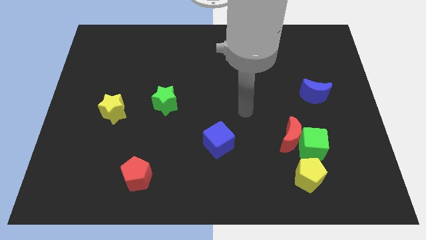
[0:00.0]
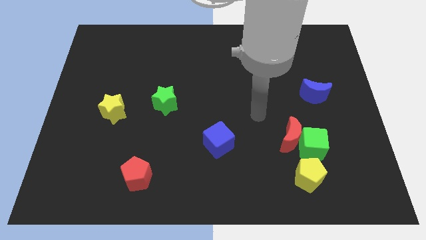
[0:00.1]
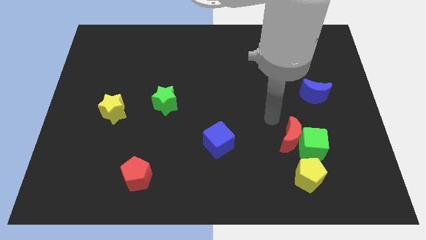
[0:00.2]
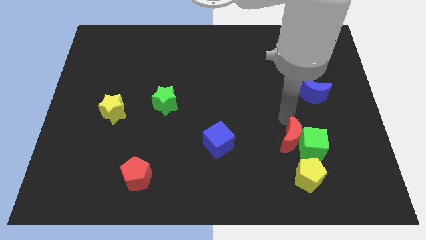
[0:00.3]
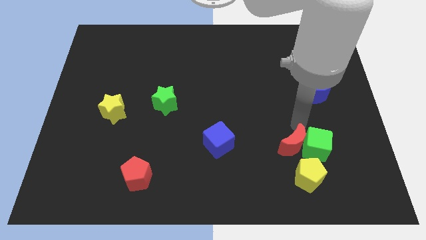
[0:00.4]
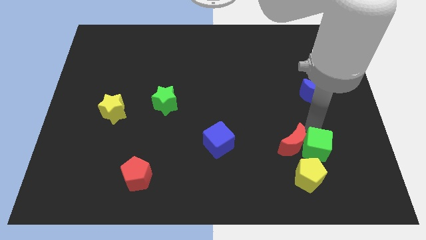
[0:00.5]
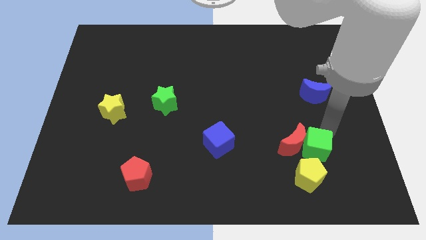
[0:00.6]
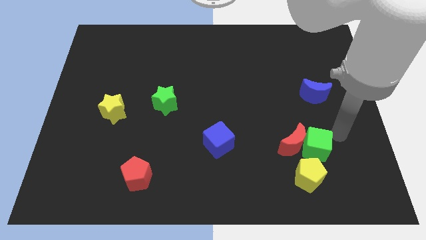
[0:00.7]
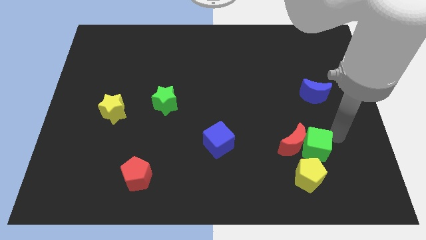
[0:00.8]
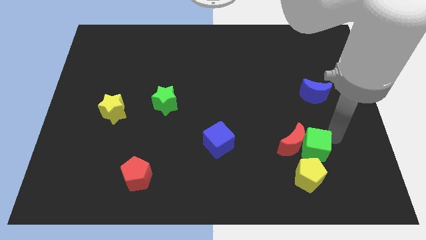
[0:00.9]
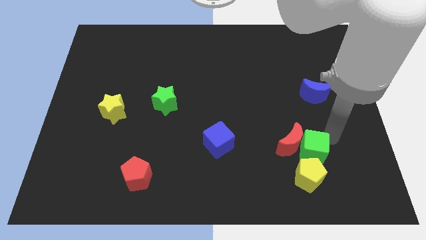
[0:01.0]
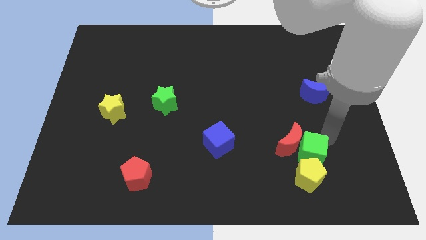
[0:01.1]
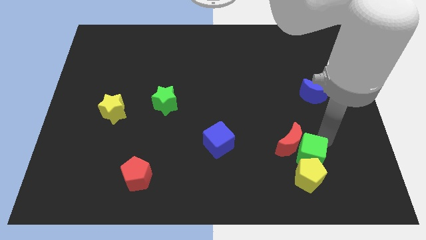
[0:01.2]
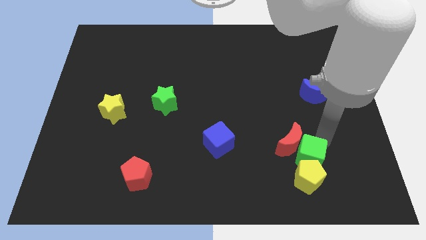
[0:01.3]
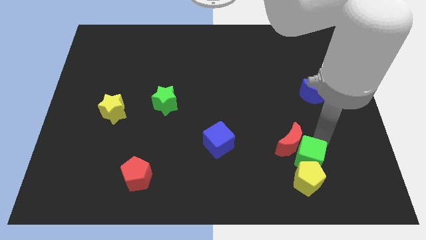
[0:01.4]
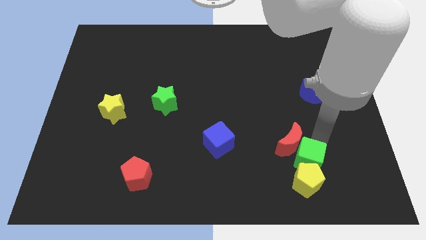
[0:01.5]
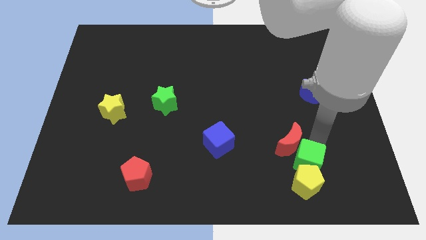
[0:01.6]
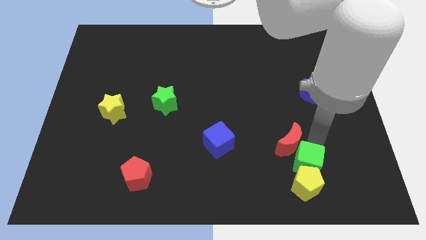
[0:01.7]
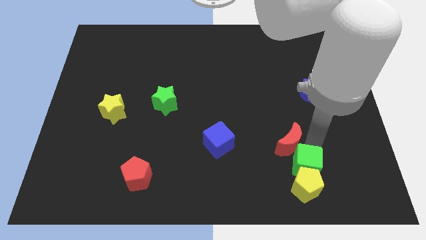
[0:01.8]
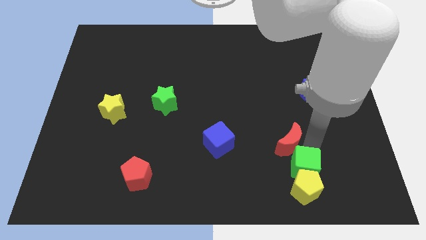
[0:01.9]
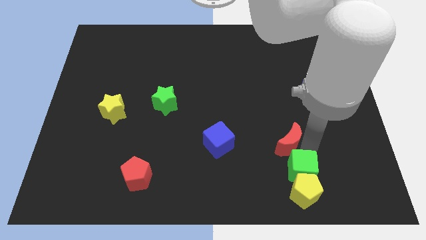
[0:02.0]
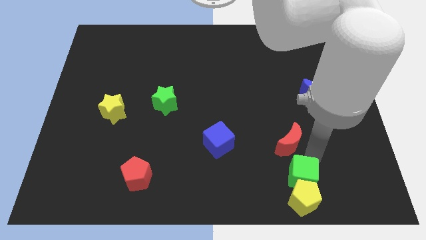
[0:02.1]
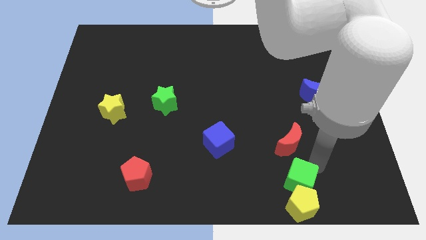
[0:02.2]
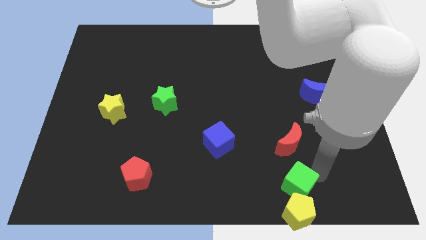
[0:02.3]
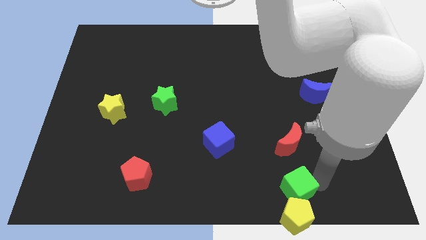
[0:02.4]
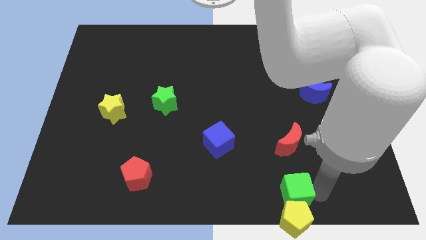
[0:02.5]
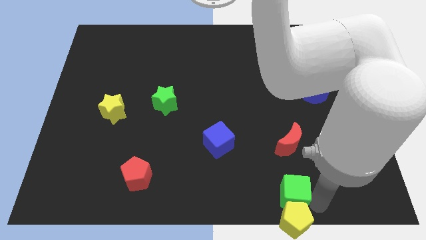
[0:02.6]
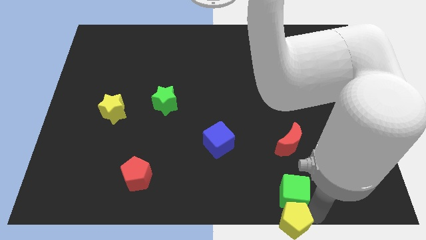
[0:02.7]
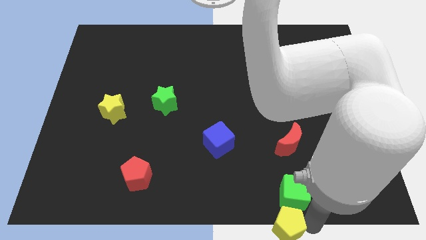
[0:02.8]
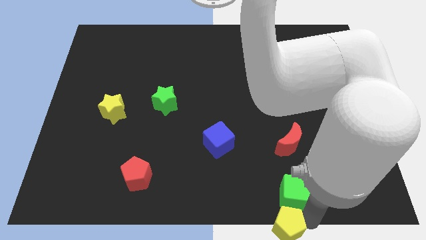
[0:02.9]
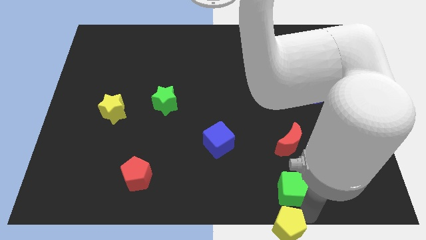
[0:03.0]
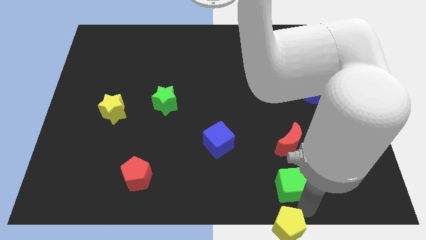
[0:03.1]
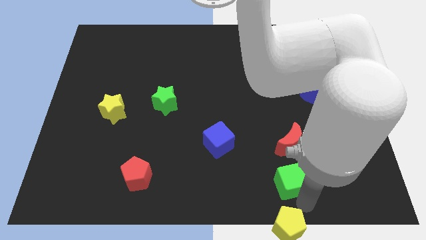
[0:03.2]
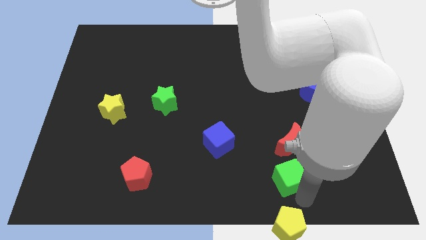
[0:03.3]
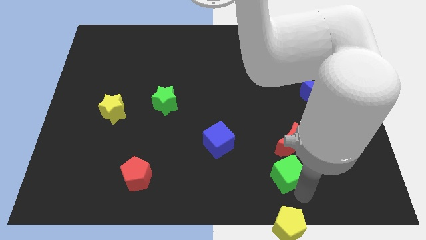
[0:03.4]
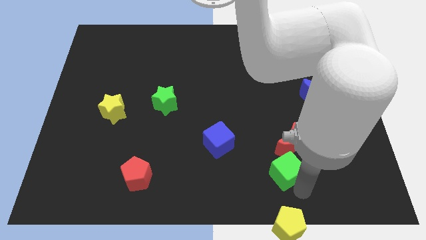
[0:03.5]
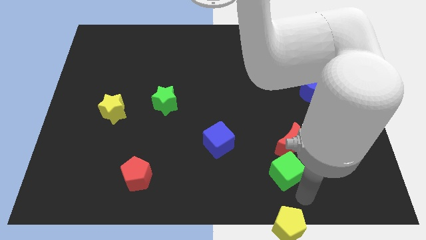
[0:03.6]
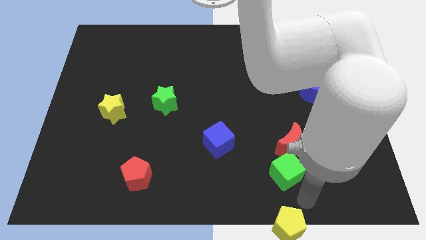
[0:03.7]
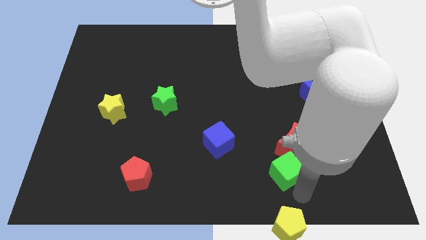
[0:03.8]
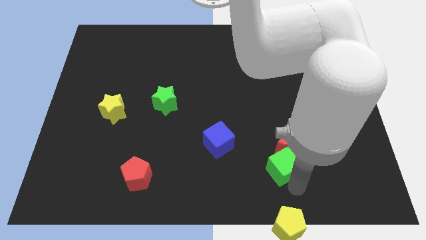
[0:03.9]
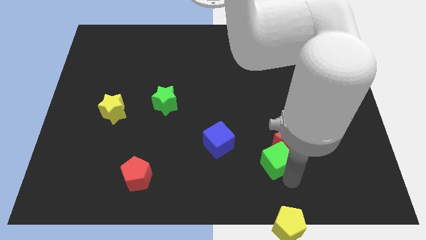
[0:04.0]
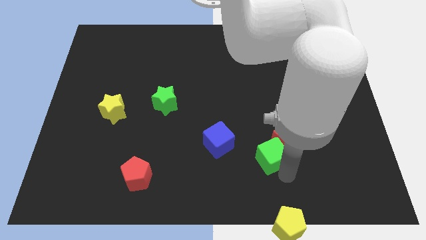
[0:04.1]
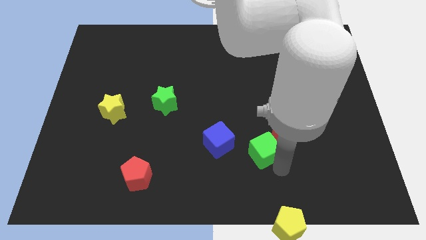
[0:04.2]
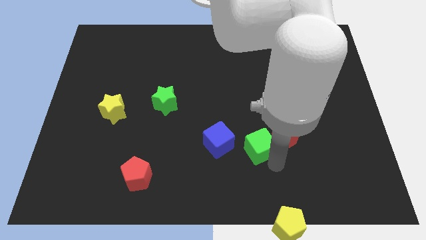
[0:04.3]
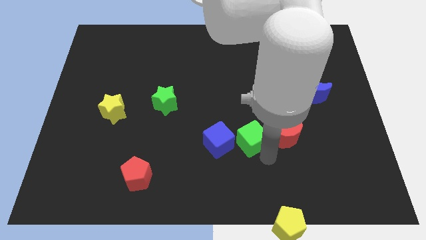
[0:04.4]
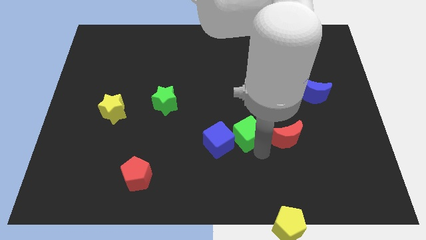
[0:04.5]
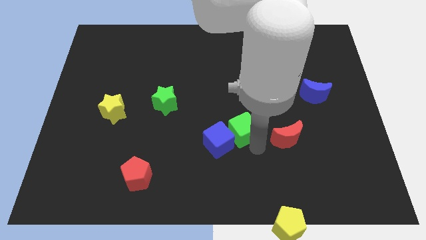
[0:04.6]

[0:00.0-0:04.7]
slide the green cube to the middle

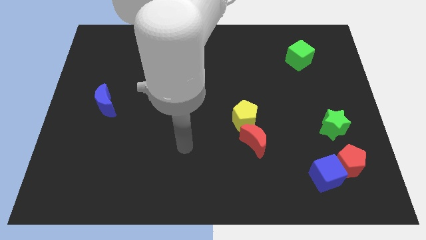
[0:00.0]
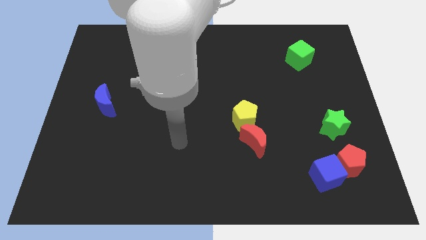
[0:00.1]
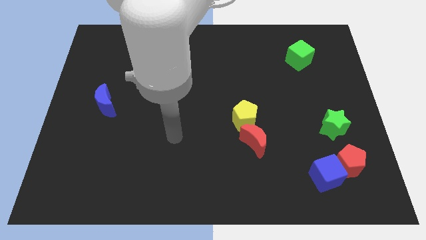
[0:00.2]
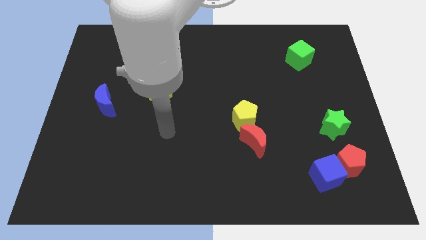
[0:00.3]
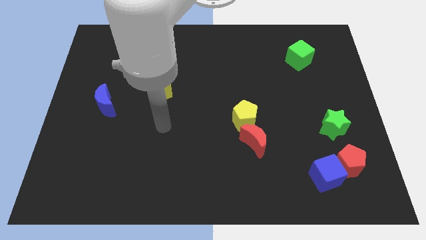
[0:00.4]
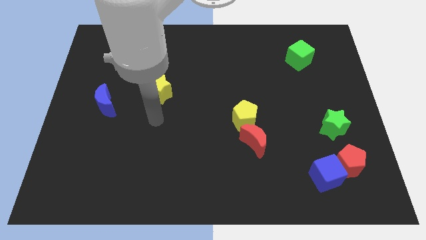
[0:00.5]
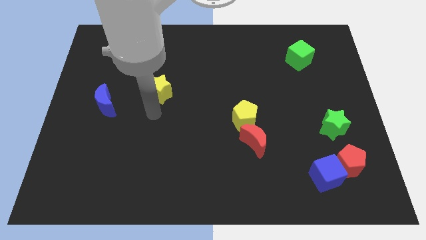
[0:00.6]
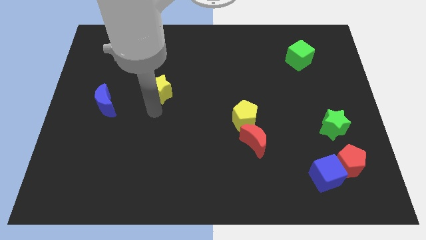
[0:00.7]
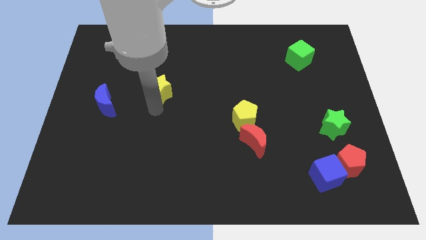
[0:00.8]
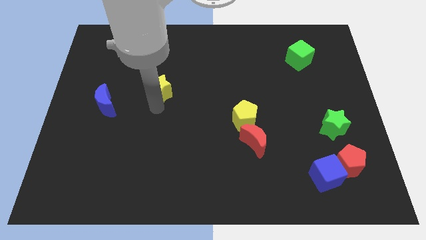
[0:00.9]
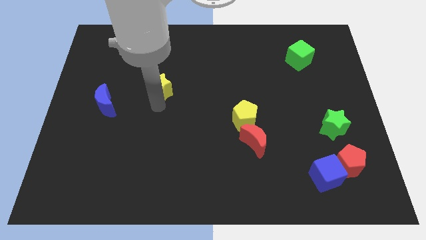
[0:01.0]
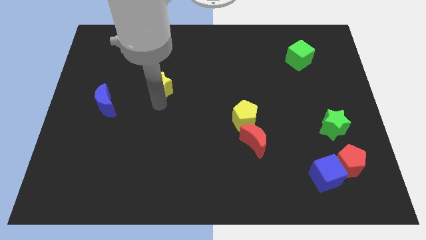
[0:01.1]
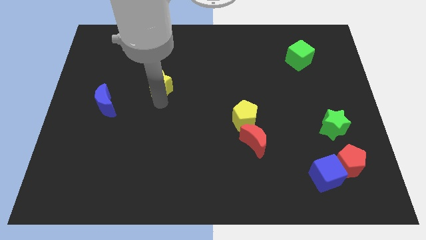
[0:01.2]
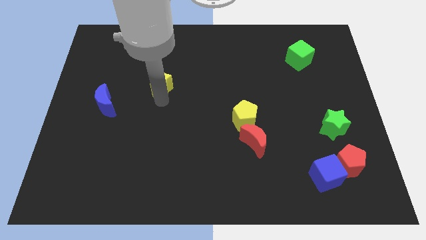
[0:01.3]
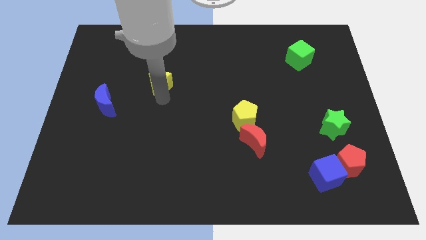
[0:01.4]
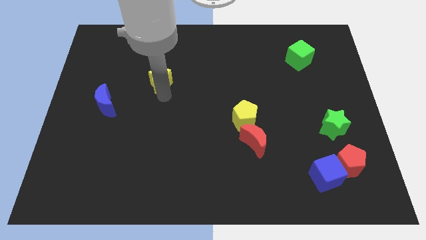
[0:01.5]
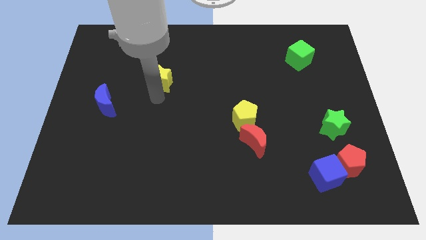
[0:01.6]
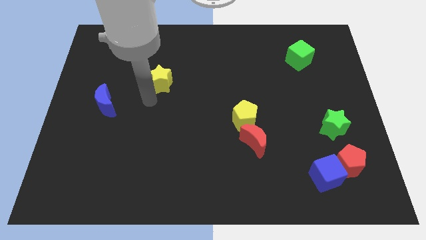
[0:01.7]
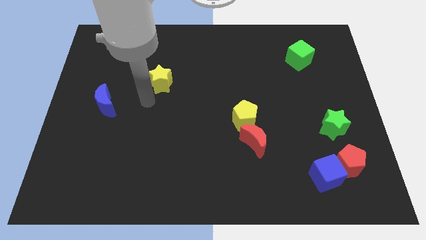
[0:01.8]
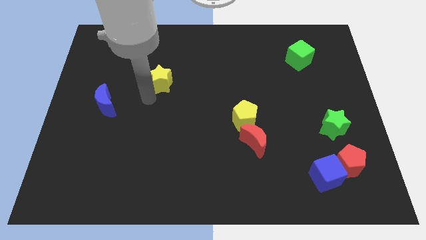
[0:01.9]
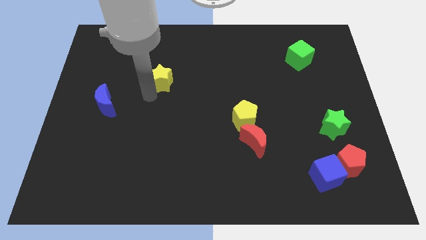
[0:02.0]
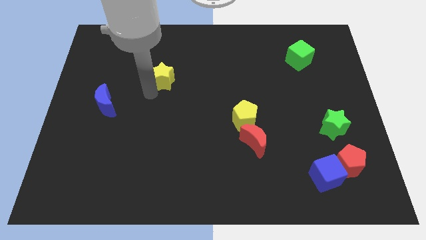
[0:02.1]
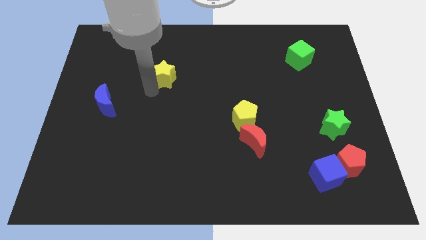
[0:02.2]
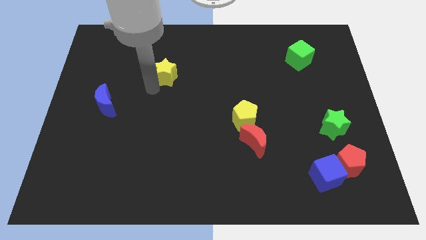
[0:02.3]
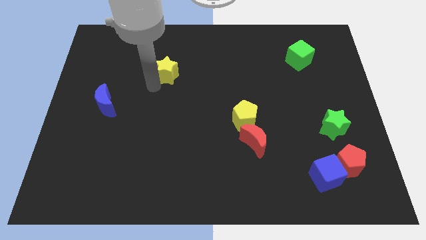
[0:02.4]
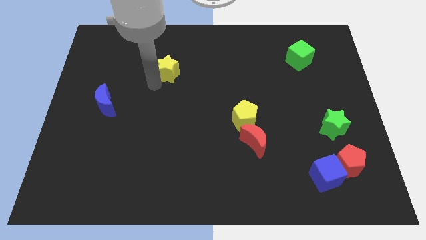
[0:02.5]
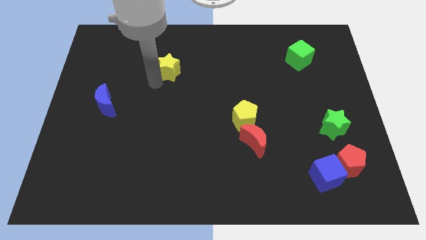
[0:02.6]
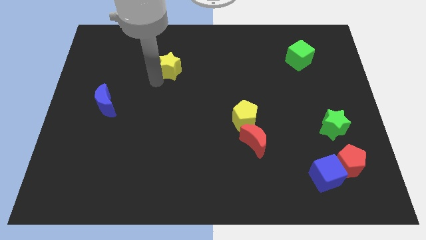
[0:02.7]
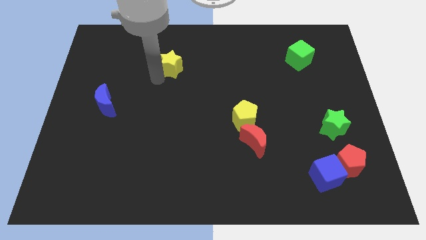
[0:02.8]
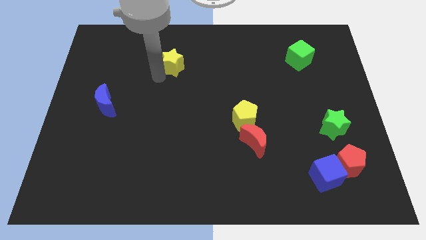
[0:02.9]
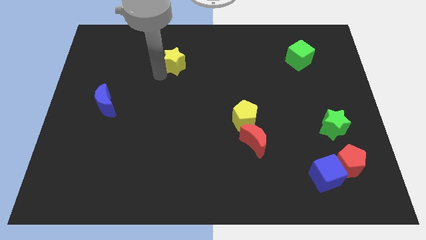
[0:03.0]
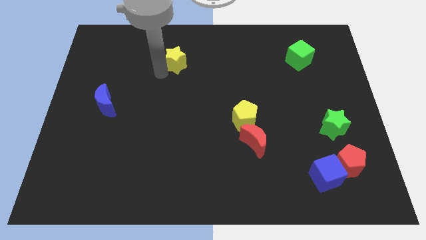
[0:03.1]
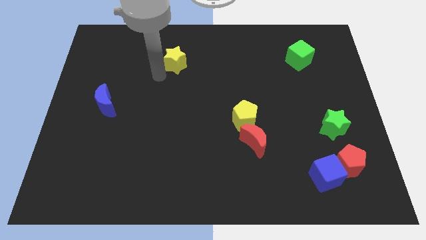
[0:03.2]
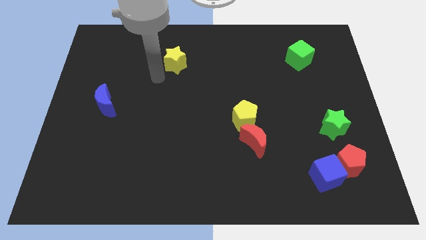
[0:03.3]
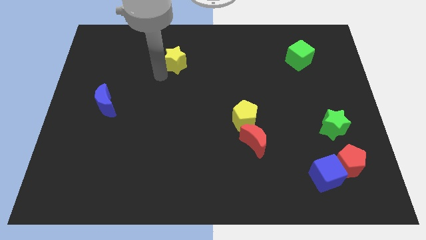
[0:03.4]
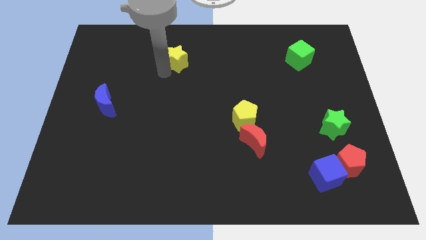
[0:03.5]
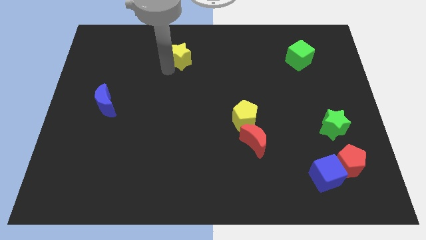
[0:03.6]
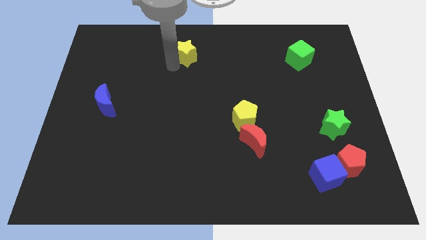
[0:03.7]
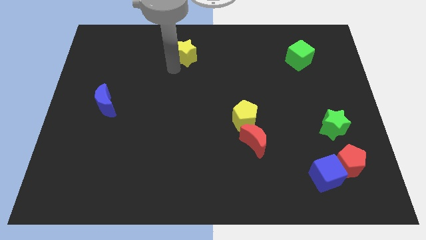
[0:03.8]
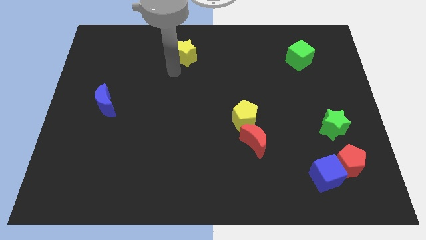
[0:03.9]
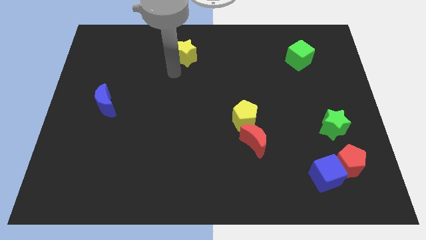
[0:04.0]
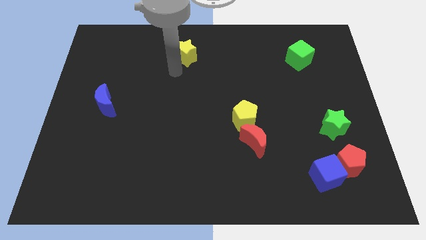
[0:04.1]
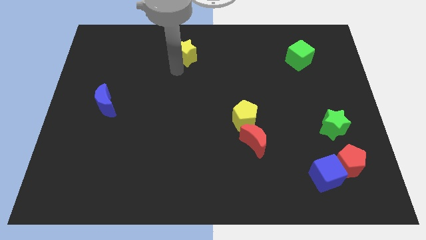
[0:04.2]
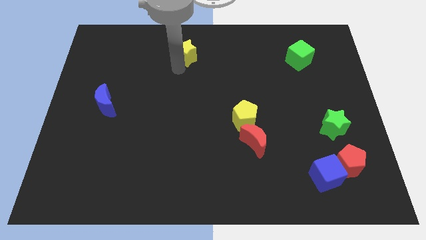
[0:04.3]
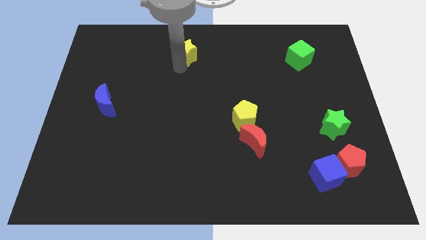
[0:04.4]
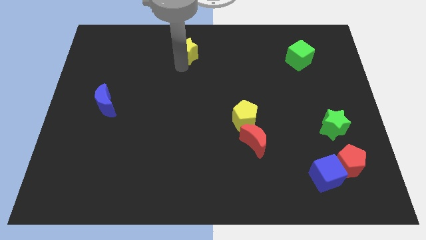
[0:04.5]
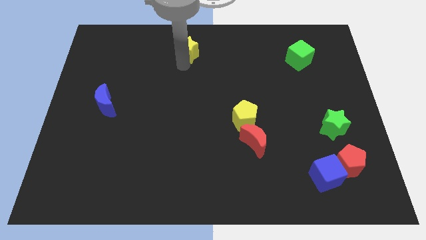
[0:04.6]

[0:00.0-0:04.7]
put the yellow star to the towards your base
